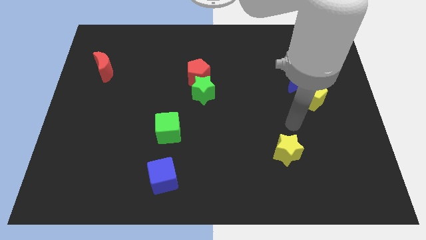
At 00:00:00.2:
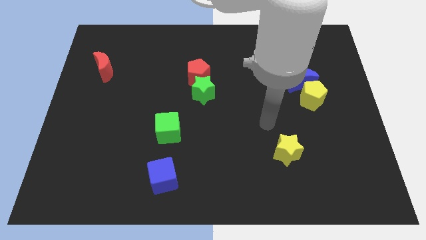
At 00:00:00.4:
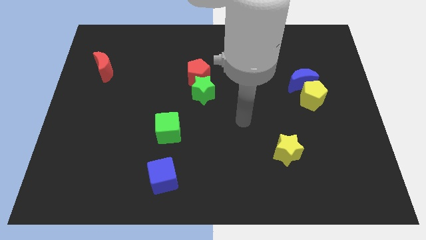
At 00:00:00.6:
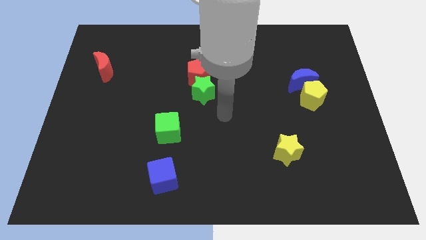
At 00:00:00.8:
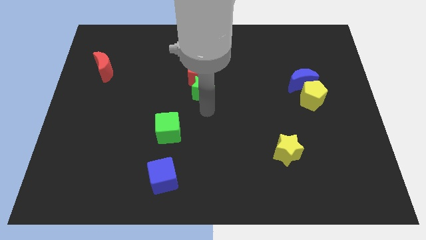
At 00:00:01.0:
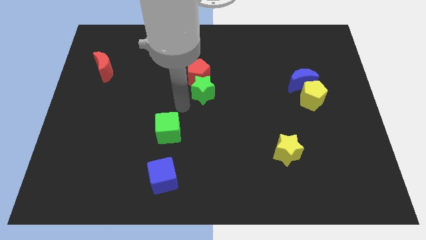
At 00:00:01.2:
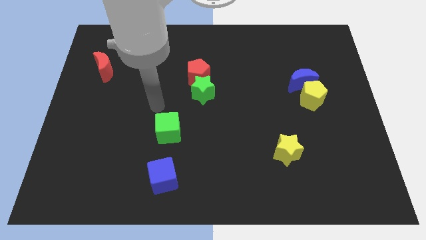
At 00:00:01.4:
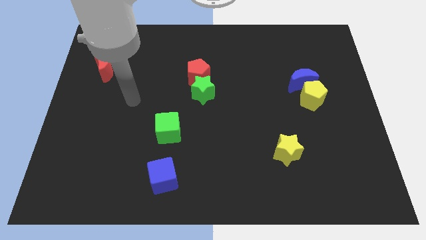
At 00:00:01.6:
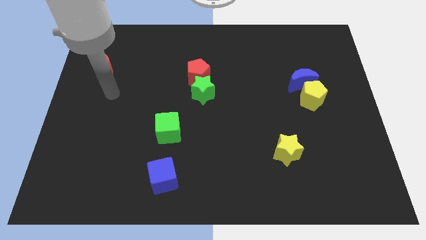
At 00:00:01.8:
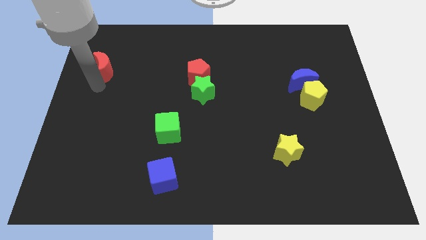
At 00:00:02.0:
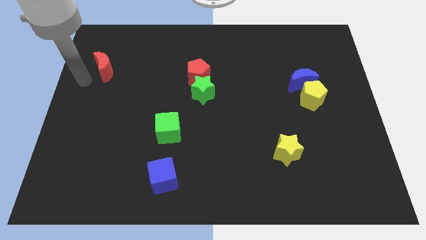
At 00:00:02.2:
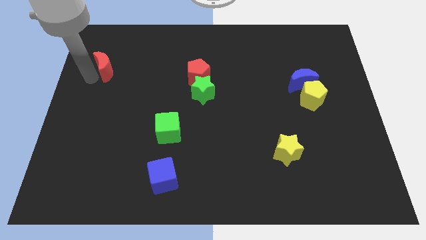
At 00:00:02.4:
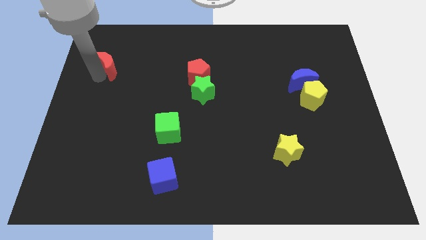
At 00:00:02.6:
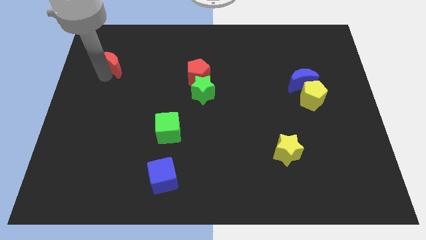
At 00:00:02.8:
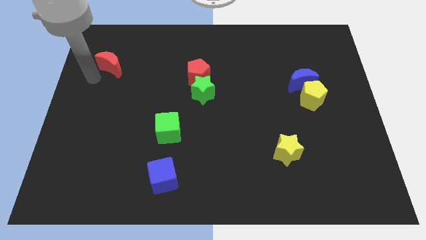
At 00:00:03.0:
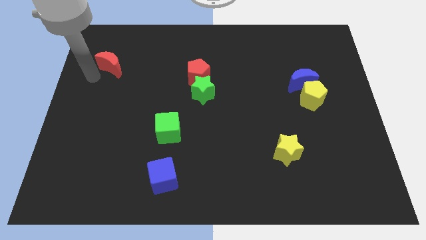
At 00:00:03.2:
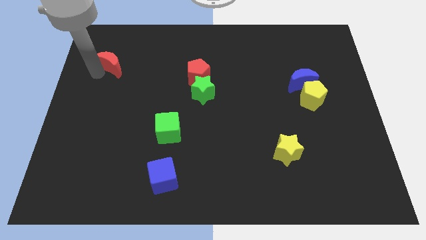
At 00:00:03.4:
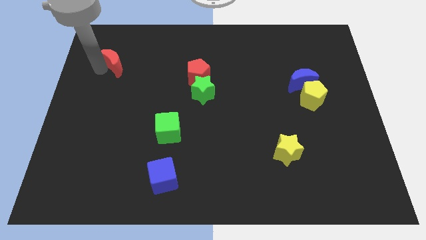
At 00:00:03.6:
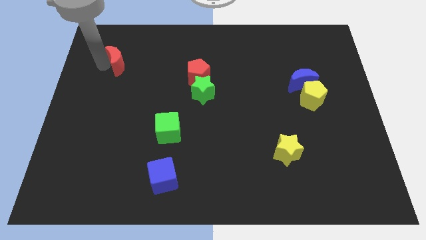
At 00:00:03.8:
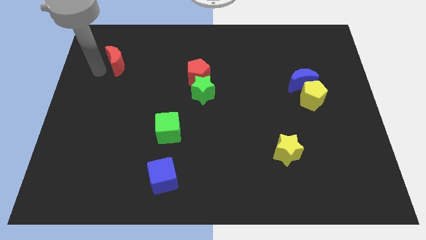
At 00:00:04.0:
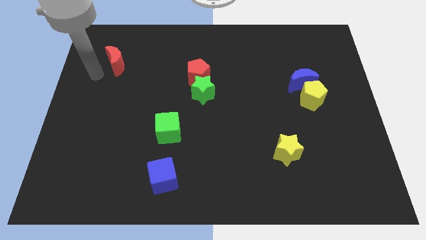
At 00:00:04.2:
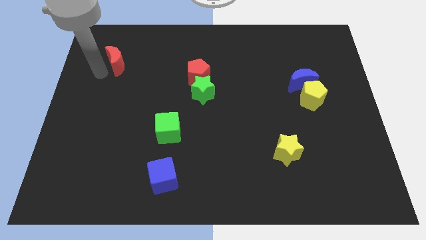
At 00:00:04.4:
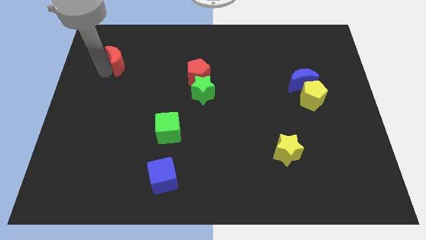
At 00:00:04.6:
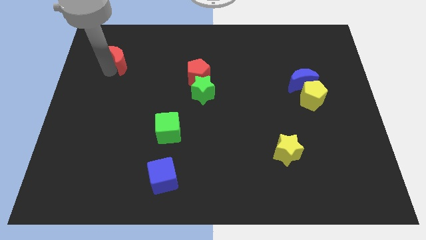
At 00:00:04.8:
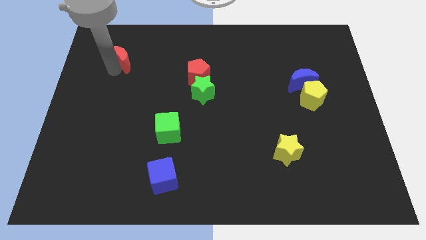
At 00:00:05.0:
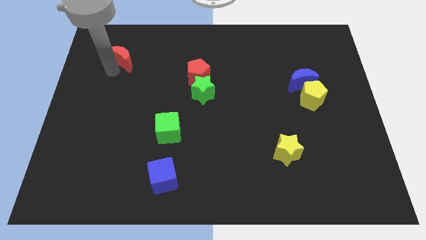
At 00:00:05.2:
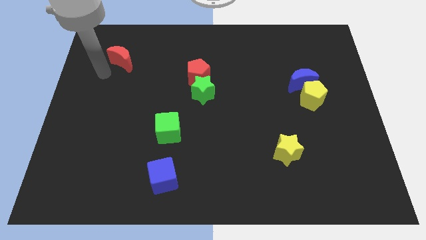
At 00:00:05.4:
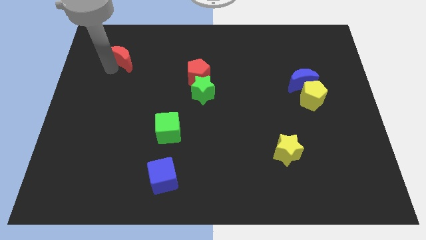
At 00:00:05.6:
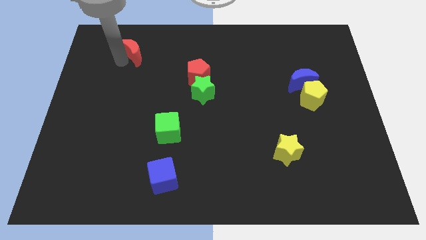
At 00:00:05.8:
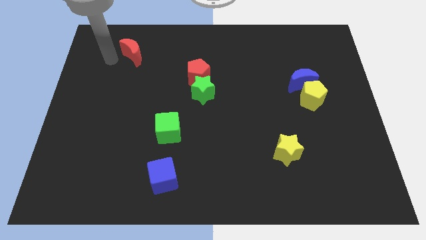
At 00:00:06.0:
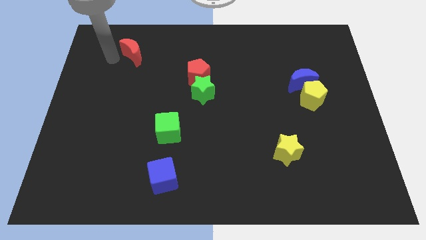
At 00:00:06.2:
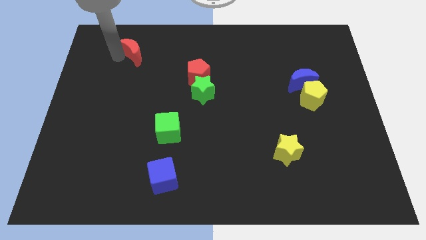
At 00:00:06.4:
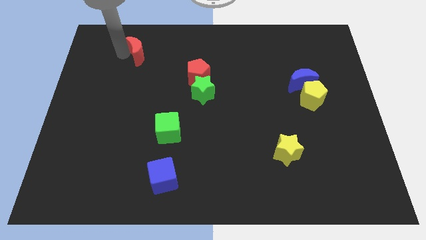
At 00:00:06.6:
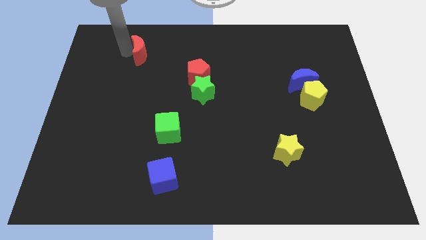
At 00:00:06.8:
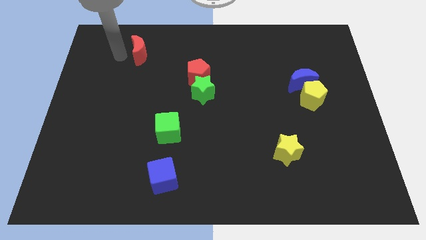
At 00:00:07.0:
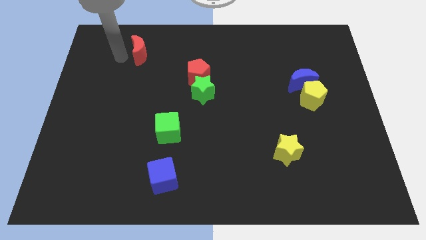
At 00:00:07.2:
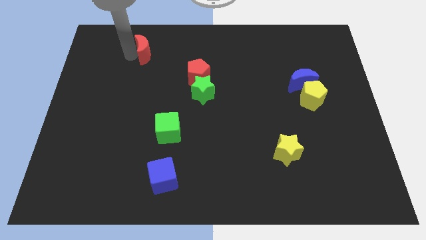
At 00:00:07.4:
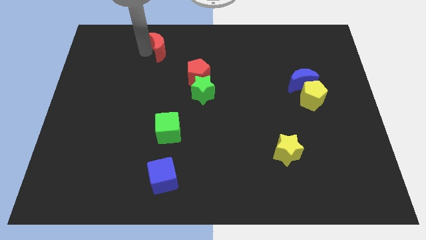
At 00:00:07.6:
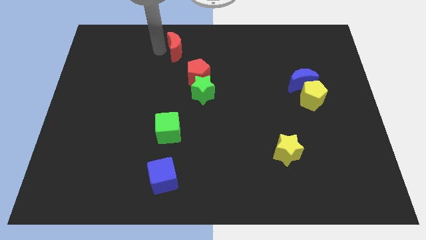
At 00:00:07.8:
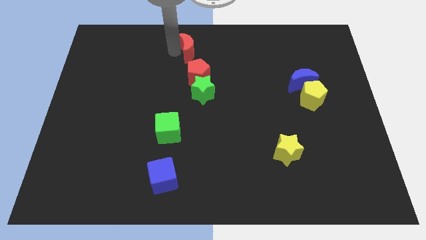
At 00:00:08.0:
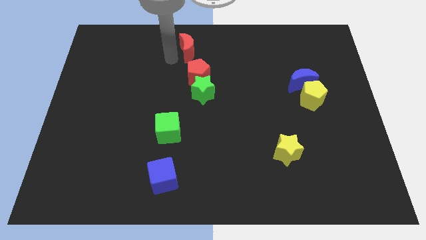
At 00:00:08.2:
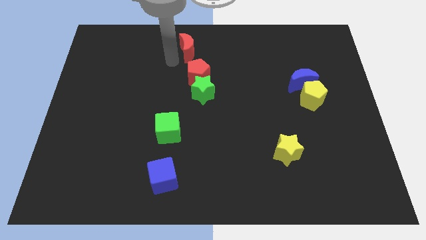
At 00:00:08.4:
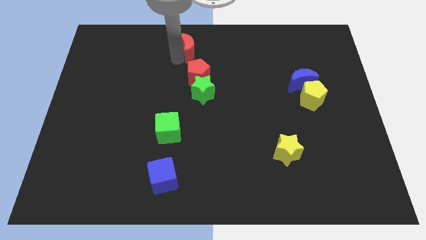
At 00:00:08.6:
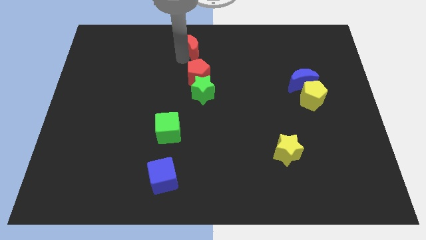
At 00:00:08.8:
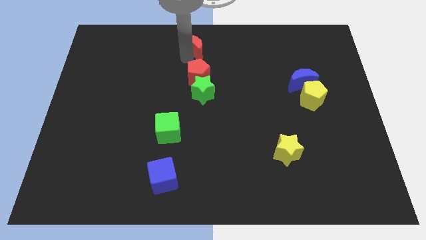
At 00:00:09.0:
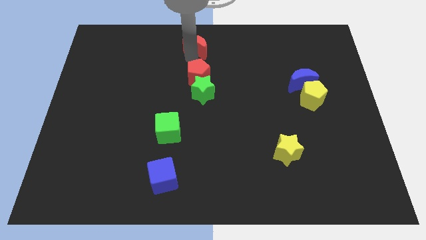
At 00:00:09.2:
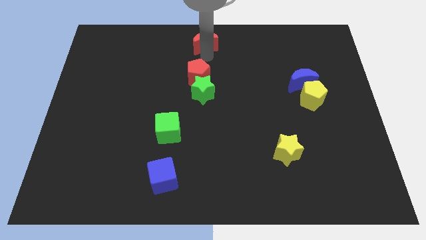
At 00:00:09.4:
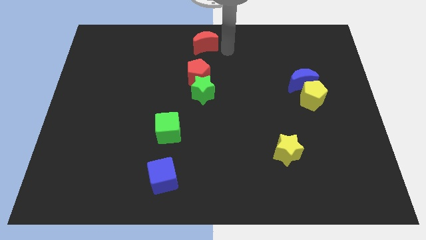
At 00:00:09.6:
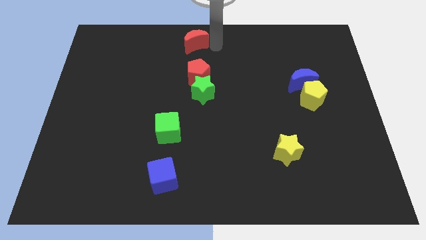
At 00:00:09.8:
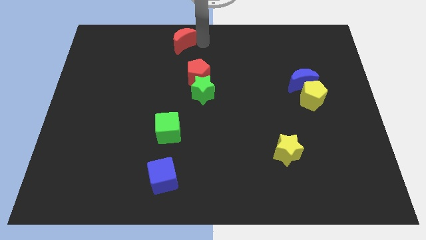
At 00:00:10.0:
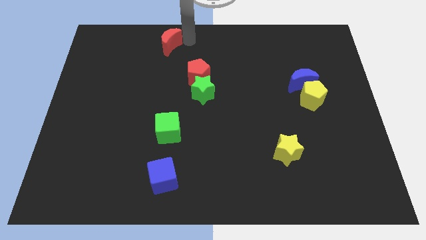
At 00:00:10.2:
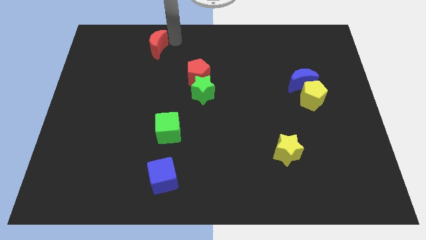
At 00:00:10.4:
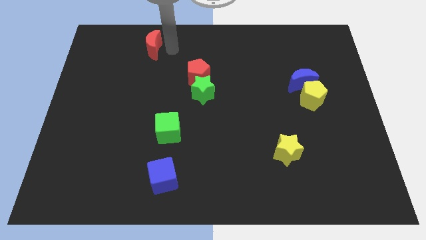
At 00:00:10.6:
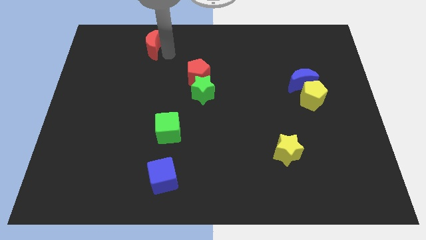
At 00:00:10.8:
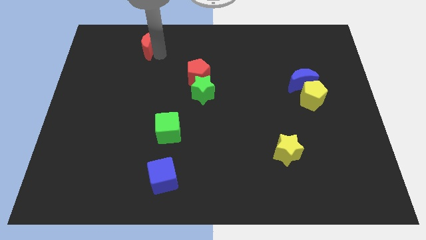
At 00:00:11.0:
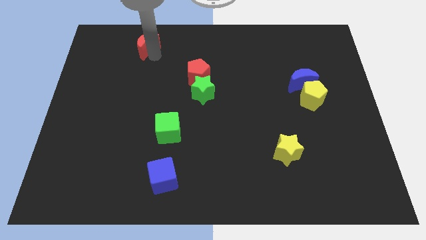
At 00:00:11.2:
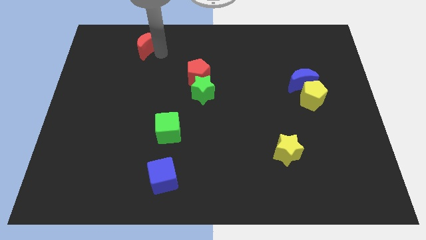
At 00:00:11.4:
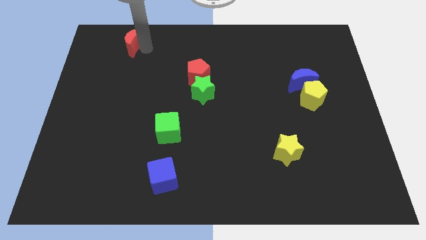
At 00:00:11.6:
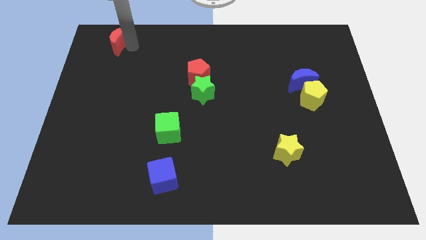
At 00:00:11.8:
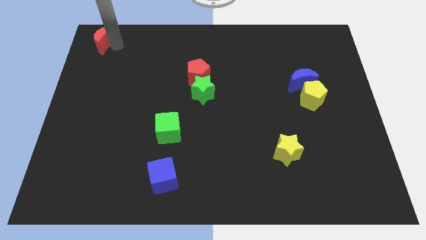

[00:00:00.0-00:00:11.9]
put the red moon to the top left of the board

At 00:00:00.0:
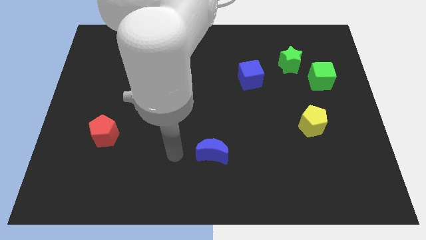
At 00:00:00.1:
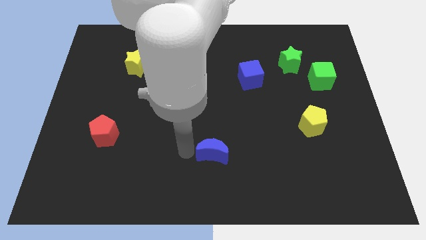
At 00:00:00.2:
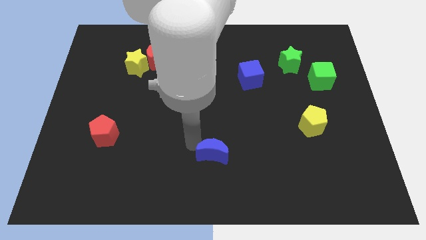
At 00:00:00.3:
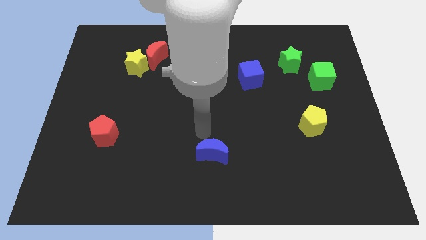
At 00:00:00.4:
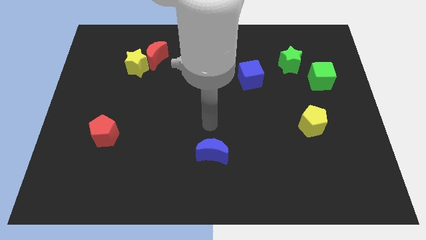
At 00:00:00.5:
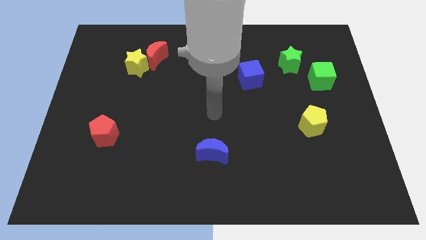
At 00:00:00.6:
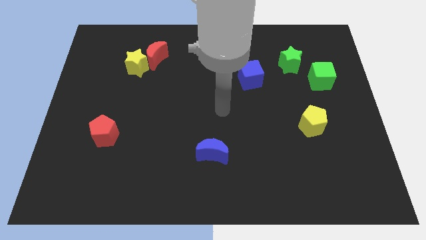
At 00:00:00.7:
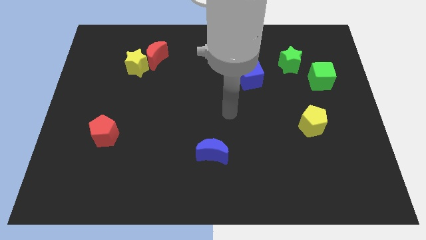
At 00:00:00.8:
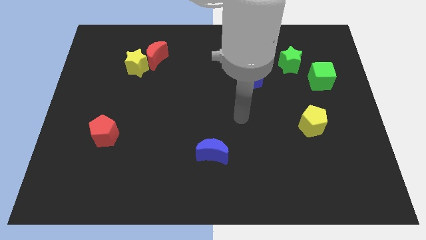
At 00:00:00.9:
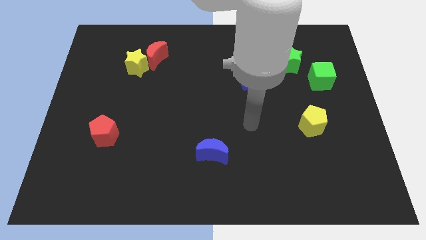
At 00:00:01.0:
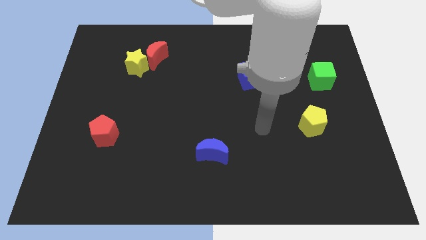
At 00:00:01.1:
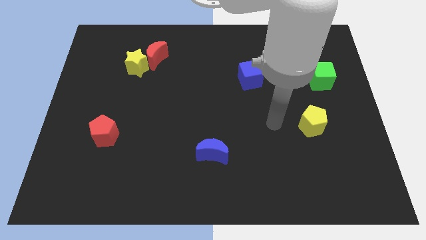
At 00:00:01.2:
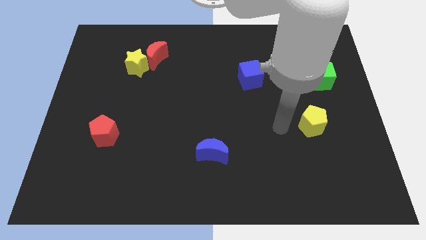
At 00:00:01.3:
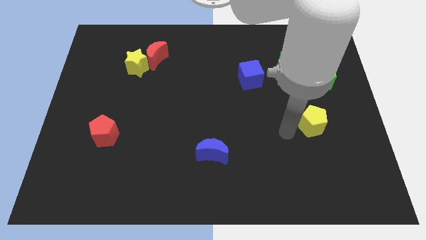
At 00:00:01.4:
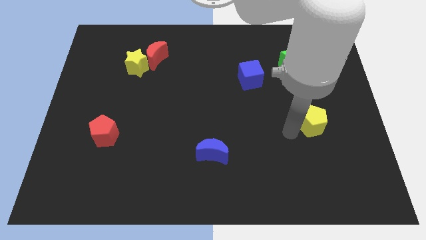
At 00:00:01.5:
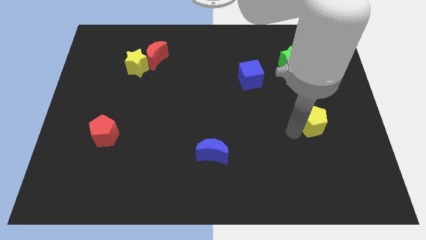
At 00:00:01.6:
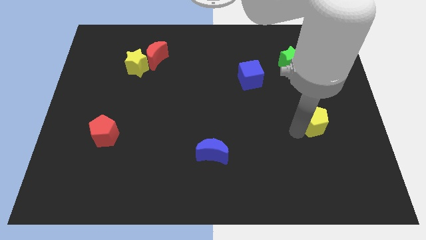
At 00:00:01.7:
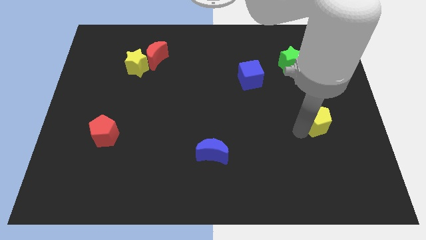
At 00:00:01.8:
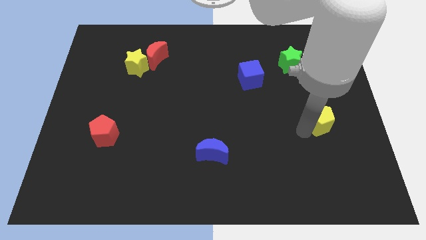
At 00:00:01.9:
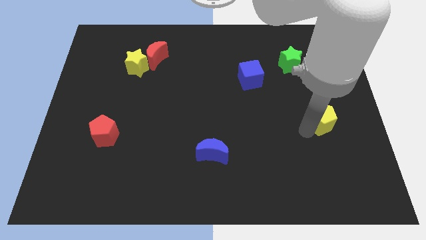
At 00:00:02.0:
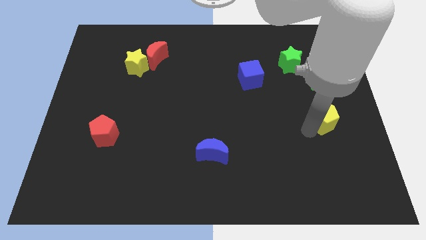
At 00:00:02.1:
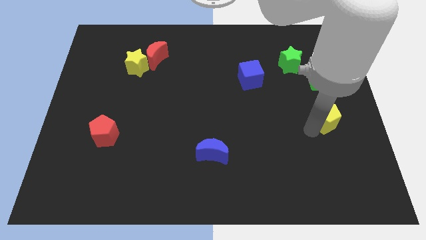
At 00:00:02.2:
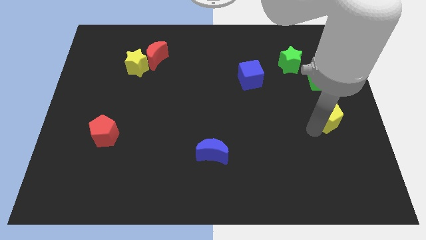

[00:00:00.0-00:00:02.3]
push the yellow pentagon to the center right
